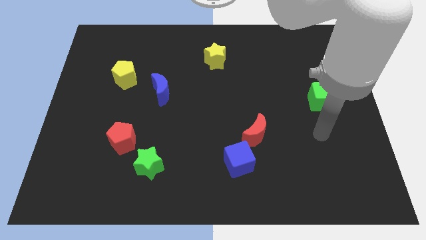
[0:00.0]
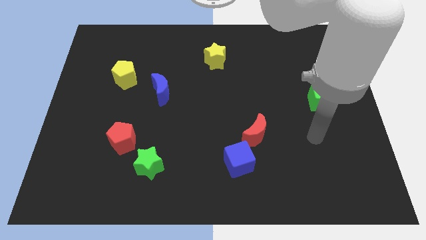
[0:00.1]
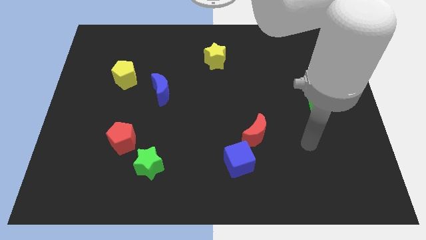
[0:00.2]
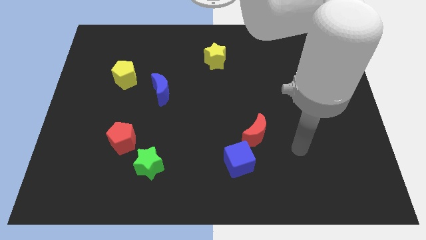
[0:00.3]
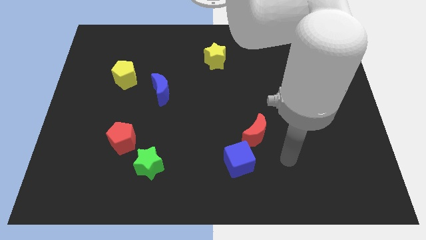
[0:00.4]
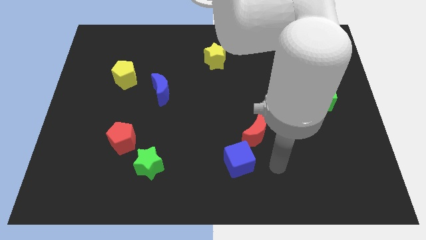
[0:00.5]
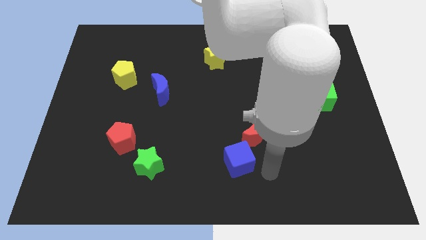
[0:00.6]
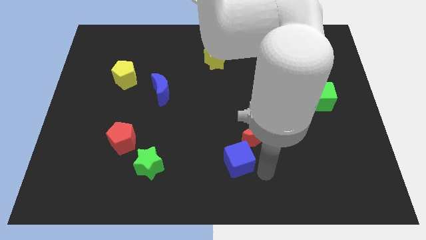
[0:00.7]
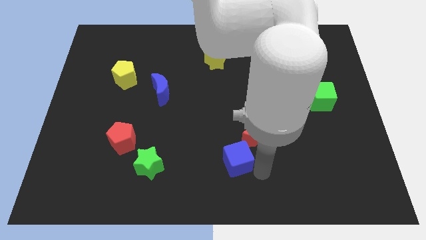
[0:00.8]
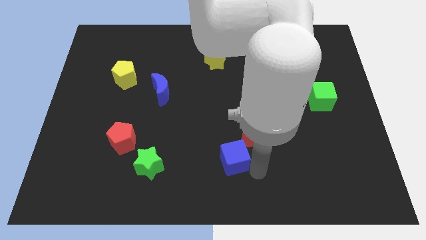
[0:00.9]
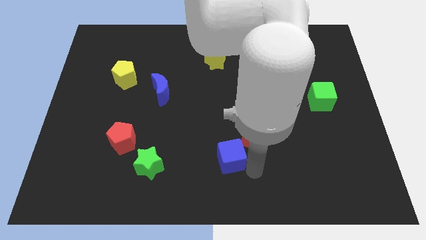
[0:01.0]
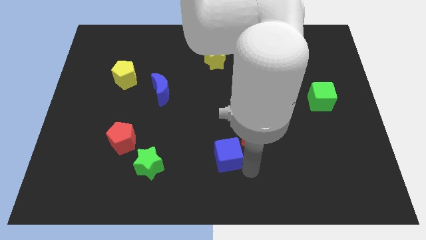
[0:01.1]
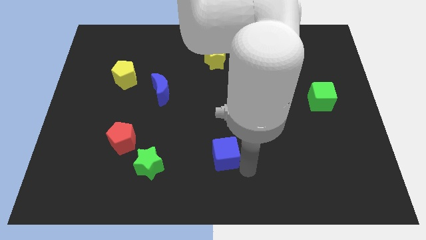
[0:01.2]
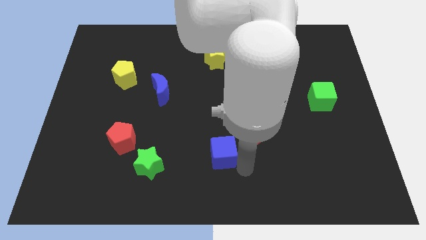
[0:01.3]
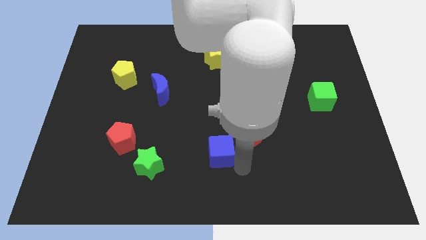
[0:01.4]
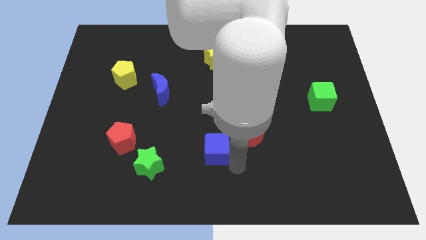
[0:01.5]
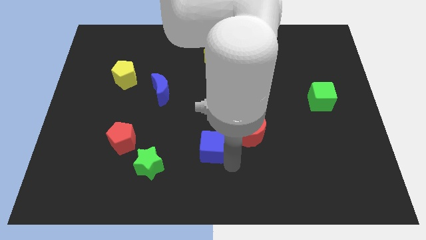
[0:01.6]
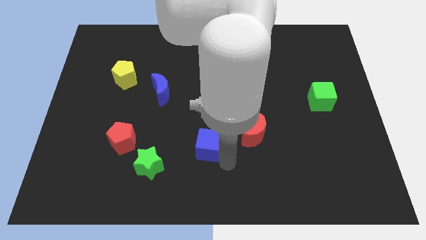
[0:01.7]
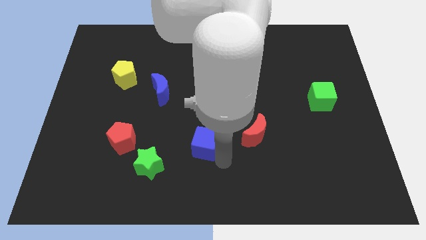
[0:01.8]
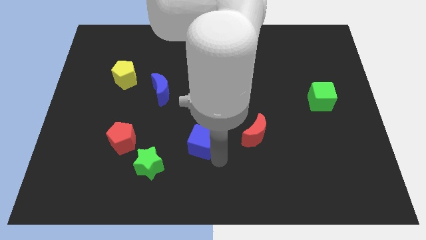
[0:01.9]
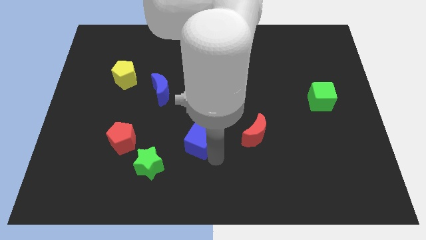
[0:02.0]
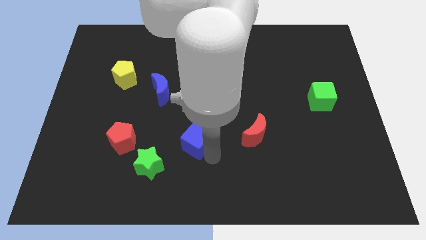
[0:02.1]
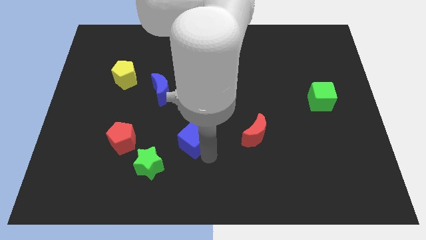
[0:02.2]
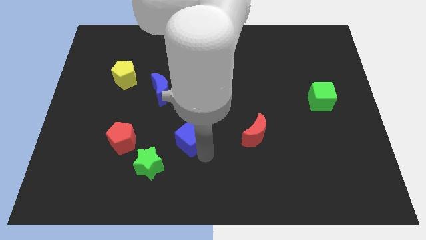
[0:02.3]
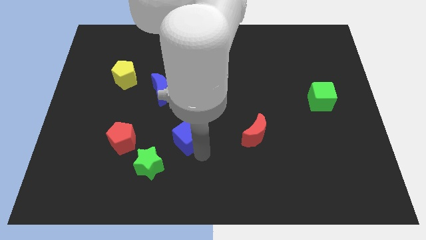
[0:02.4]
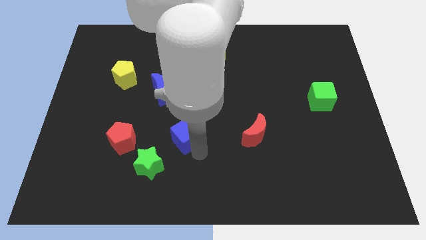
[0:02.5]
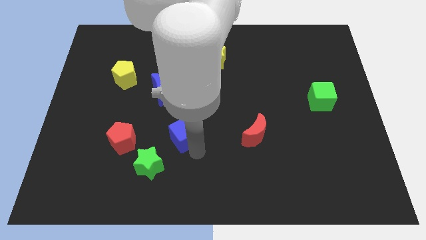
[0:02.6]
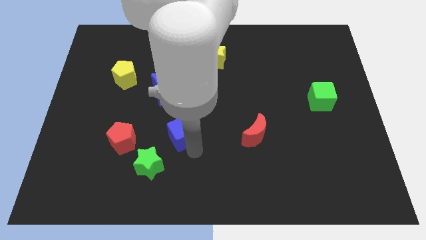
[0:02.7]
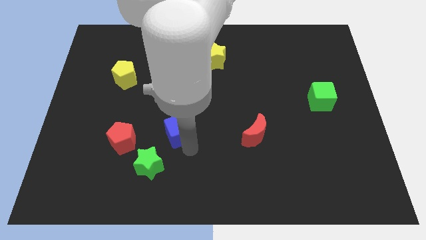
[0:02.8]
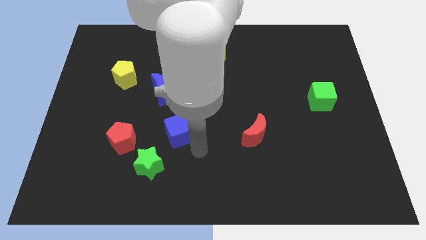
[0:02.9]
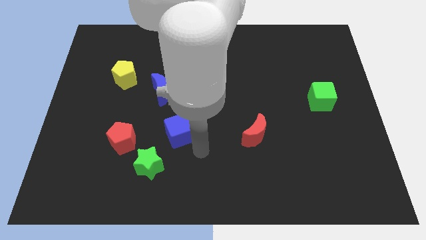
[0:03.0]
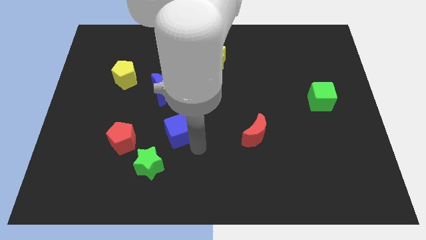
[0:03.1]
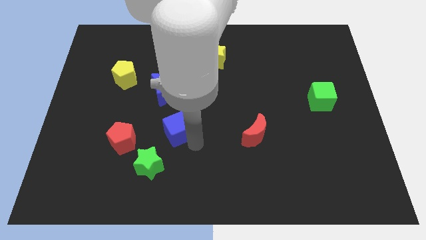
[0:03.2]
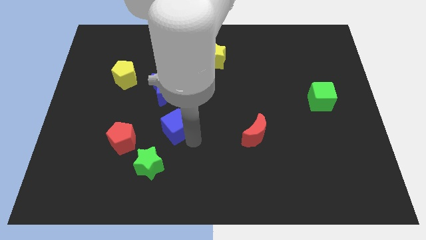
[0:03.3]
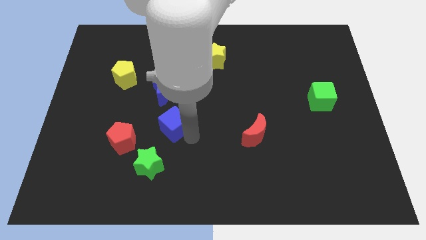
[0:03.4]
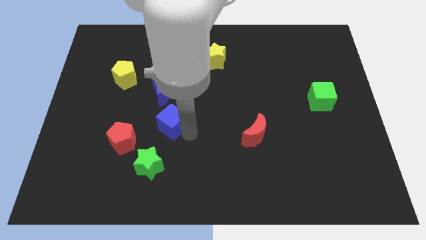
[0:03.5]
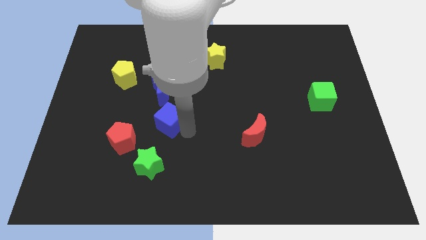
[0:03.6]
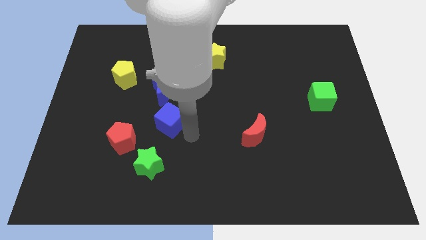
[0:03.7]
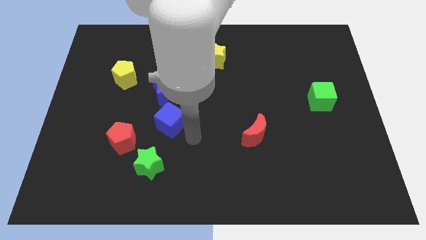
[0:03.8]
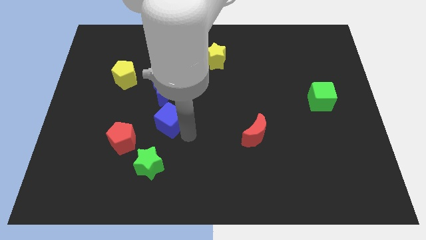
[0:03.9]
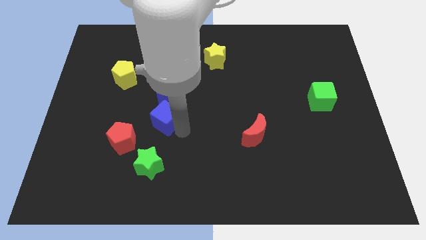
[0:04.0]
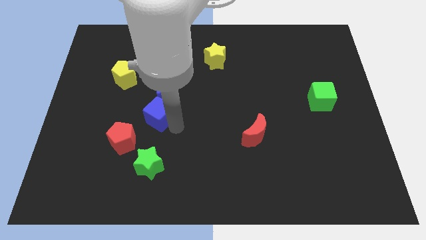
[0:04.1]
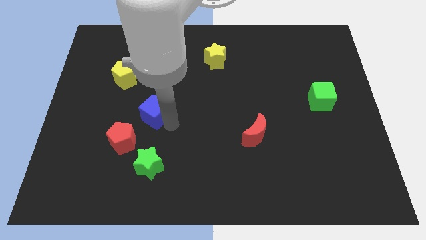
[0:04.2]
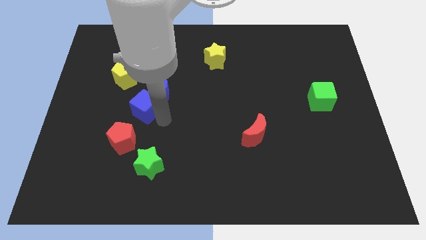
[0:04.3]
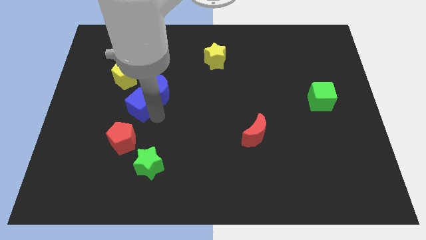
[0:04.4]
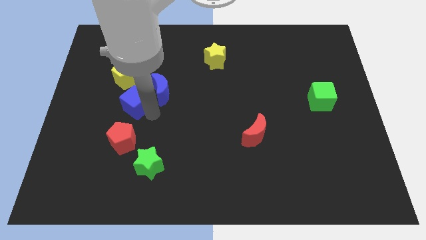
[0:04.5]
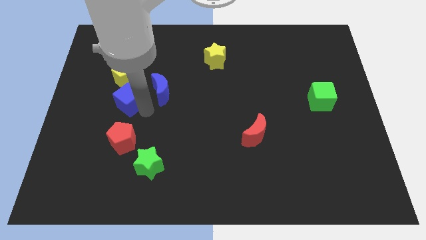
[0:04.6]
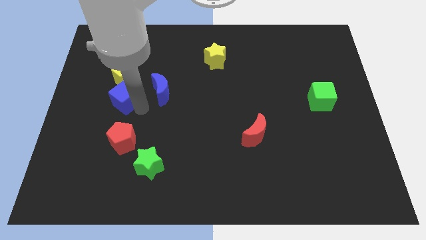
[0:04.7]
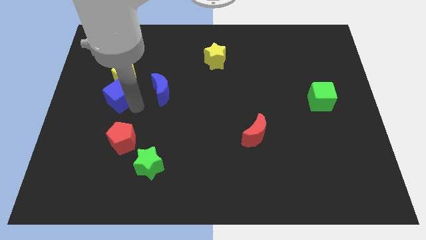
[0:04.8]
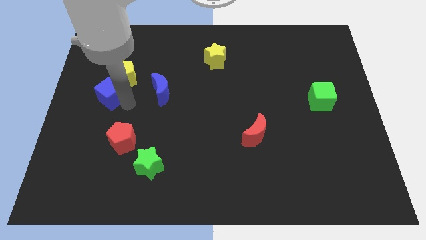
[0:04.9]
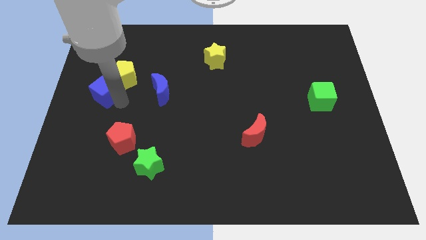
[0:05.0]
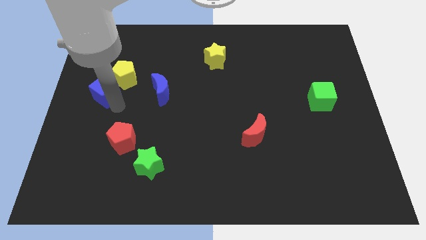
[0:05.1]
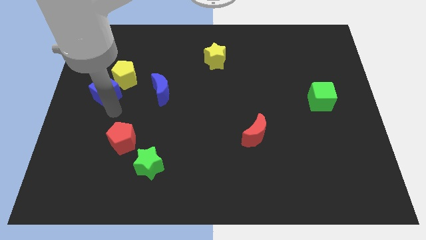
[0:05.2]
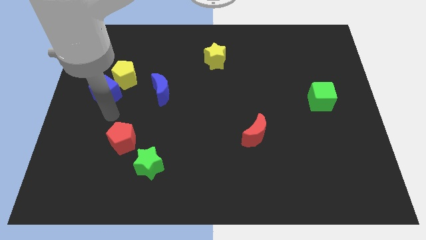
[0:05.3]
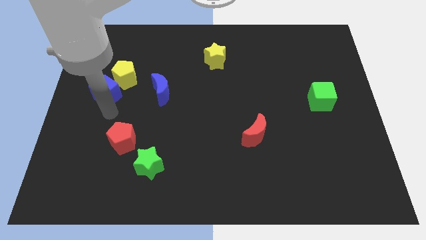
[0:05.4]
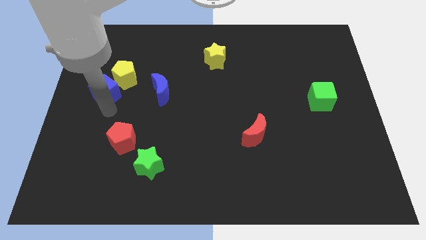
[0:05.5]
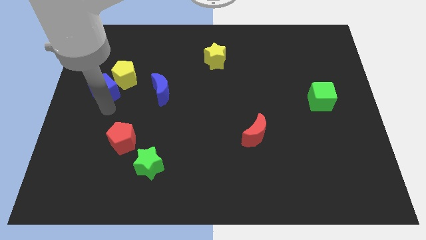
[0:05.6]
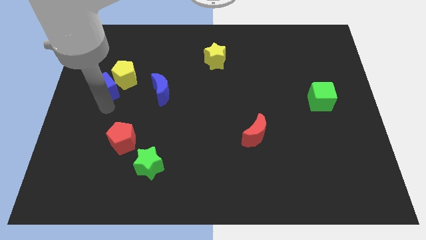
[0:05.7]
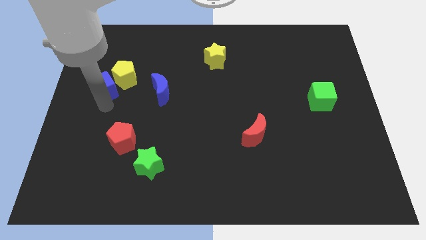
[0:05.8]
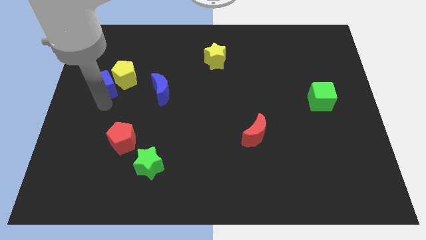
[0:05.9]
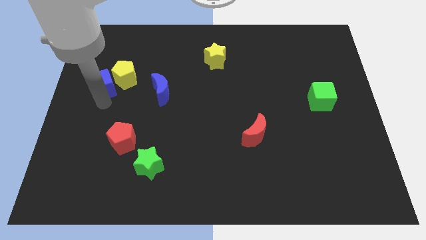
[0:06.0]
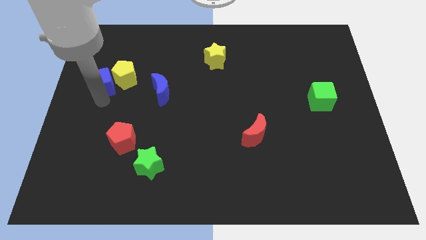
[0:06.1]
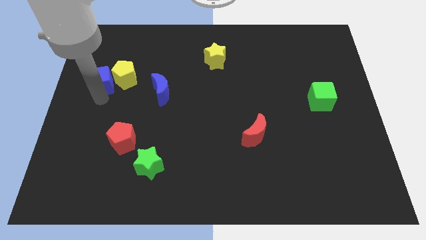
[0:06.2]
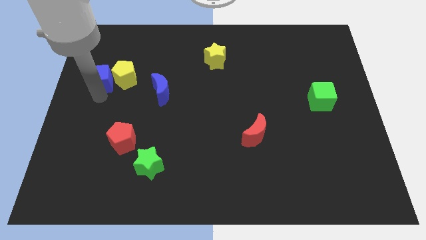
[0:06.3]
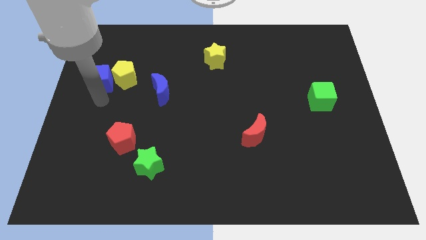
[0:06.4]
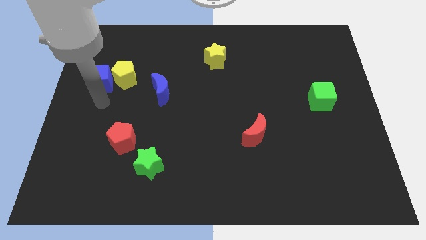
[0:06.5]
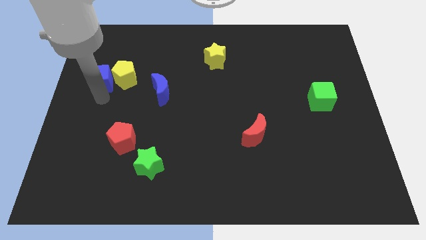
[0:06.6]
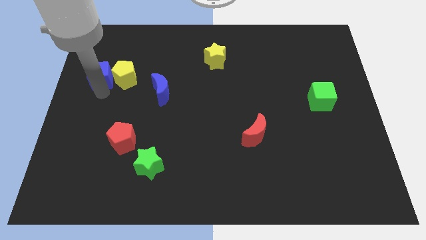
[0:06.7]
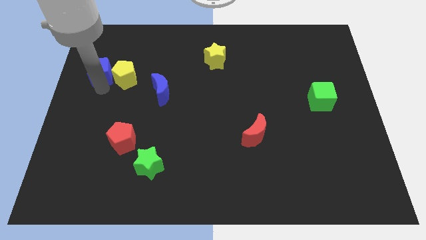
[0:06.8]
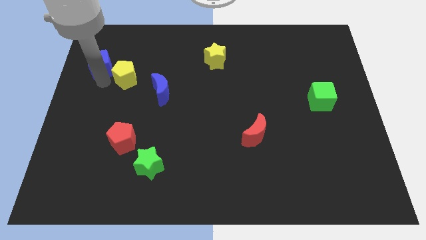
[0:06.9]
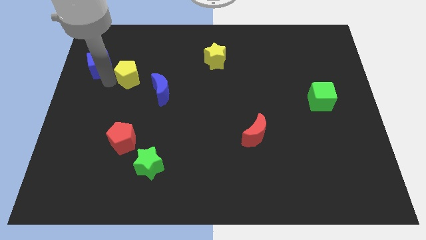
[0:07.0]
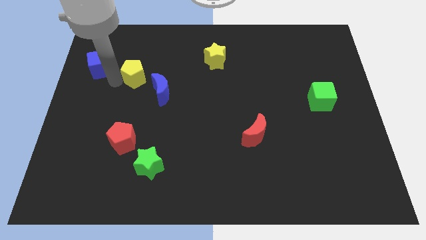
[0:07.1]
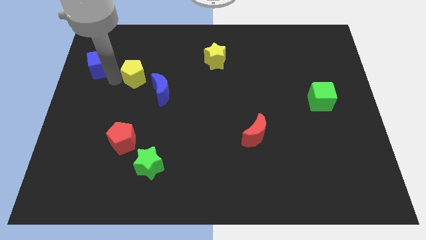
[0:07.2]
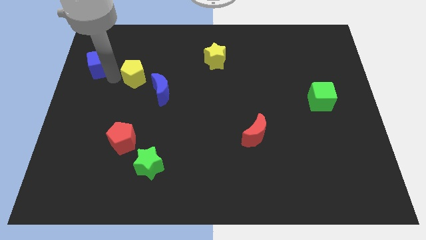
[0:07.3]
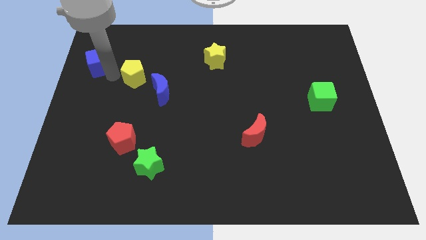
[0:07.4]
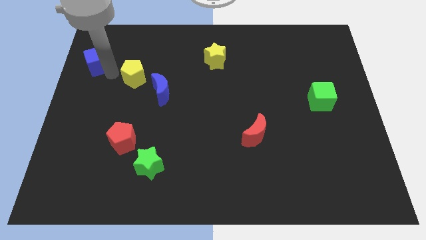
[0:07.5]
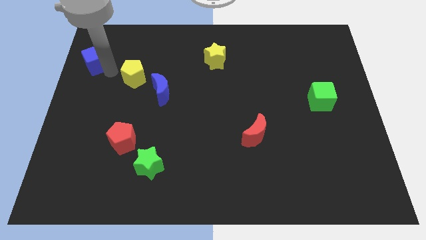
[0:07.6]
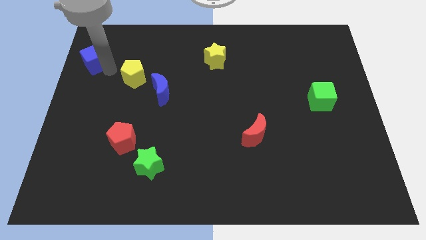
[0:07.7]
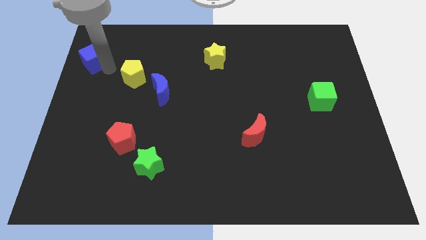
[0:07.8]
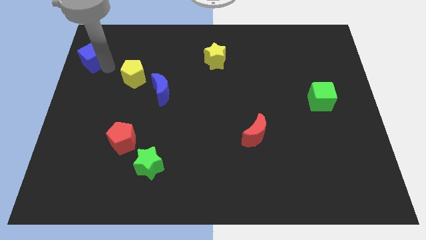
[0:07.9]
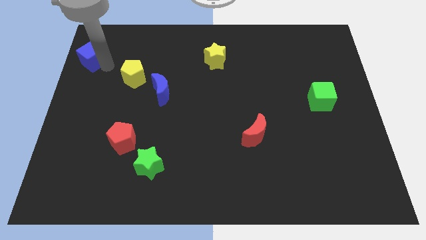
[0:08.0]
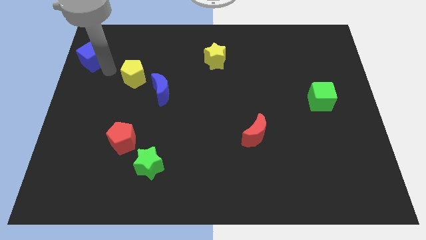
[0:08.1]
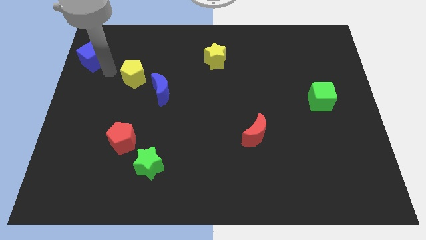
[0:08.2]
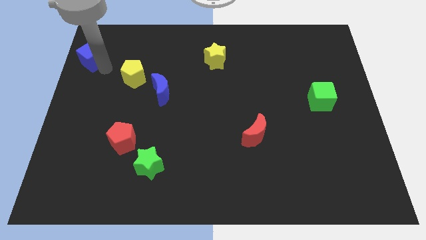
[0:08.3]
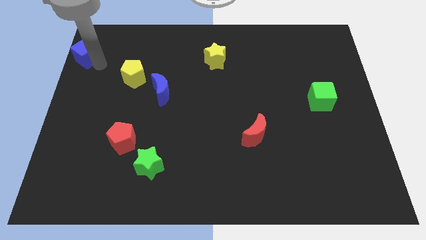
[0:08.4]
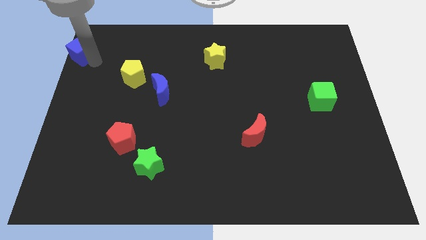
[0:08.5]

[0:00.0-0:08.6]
push the blue cube to the upper left corner
